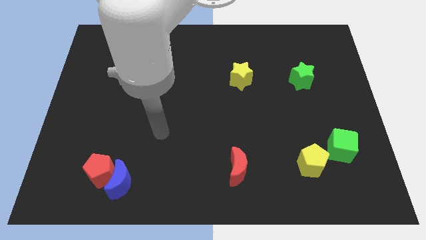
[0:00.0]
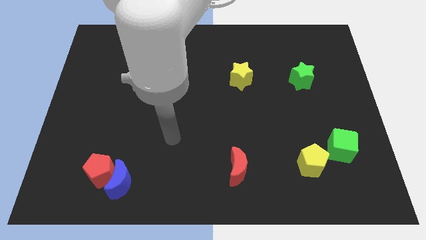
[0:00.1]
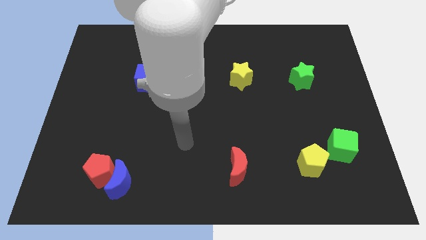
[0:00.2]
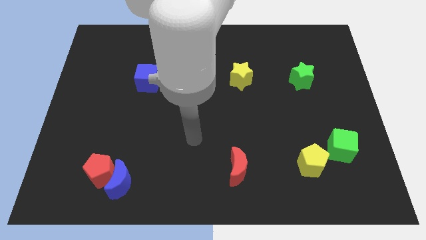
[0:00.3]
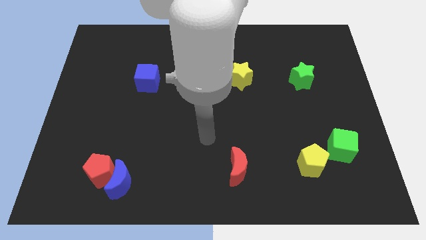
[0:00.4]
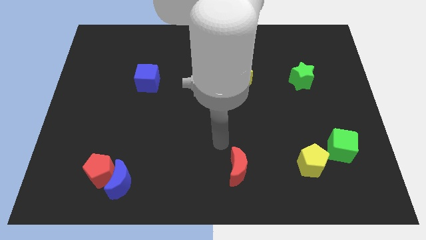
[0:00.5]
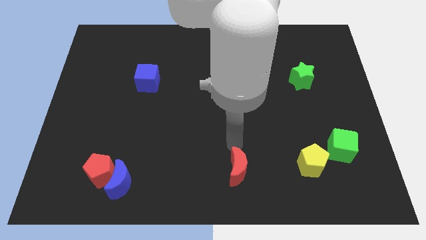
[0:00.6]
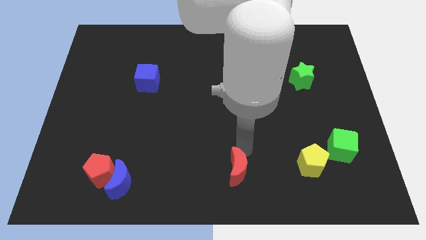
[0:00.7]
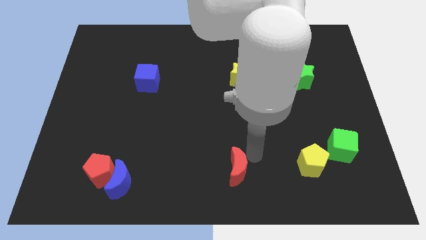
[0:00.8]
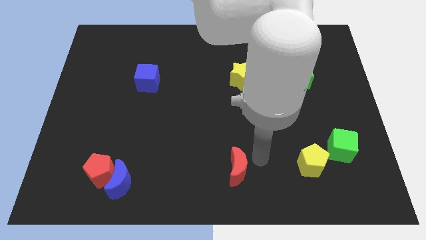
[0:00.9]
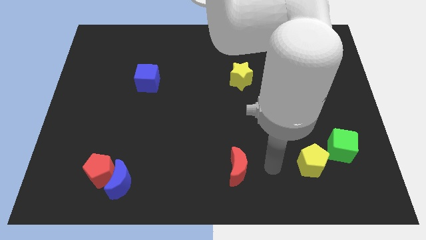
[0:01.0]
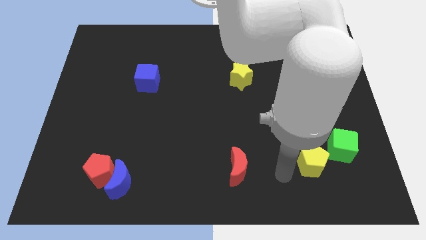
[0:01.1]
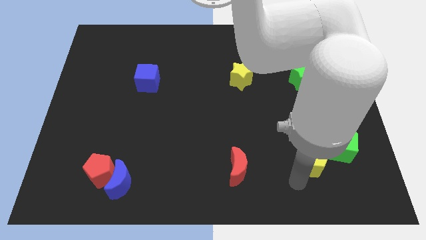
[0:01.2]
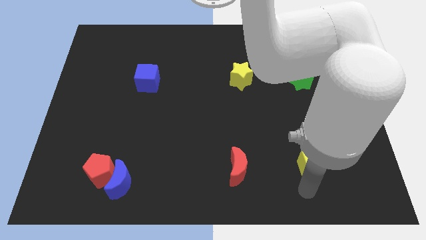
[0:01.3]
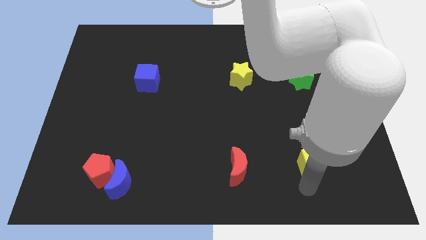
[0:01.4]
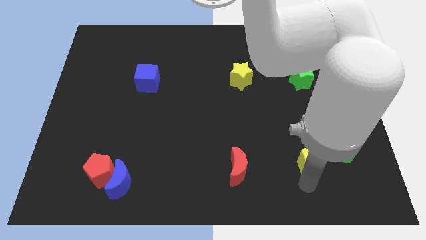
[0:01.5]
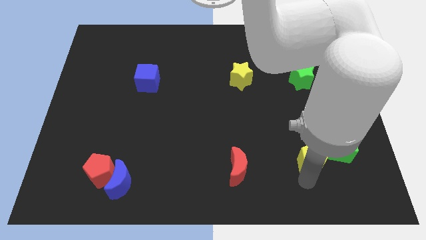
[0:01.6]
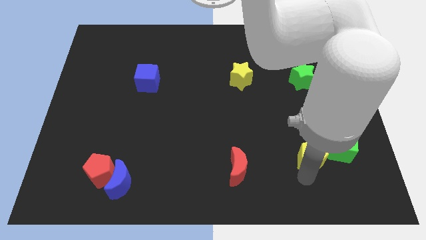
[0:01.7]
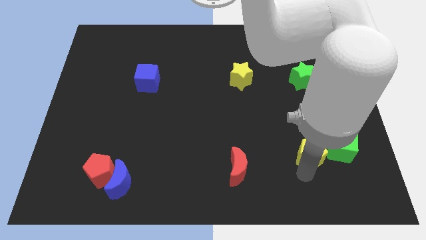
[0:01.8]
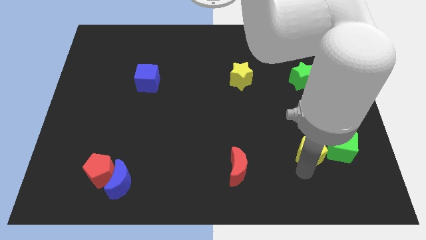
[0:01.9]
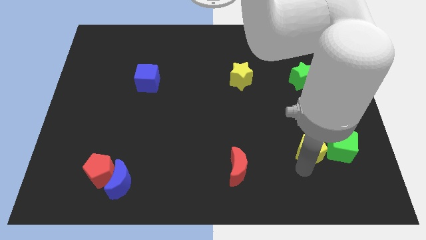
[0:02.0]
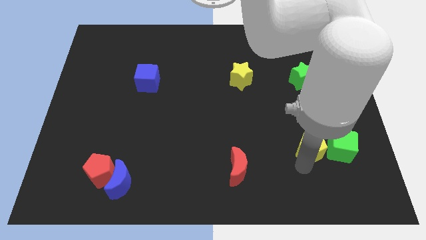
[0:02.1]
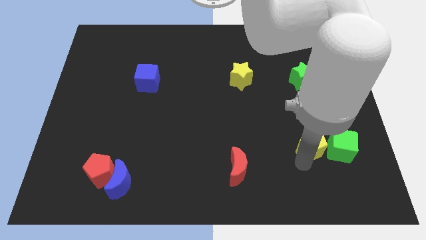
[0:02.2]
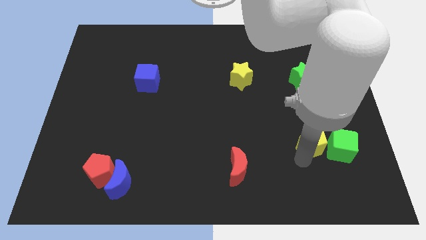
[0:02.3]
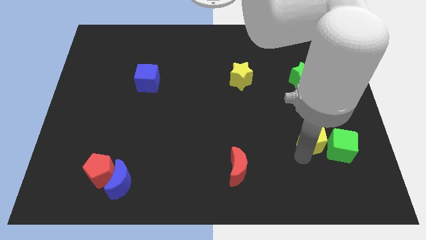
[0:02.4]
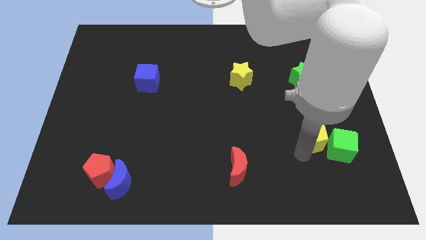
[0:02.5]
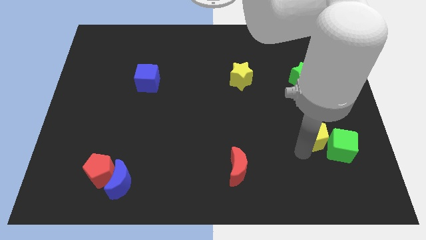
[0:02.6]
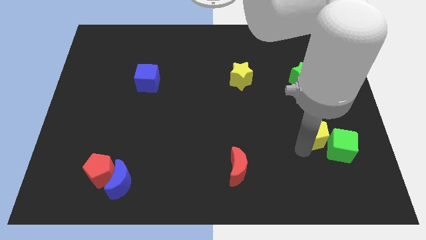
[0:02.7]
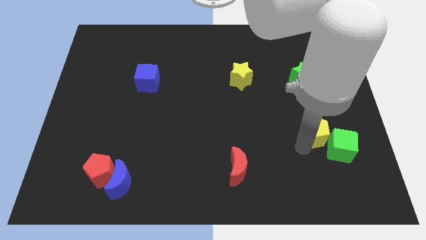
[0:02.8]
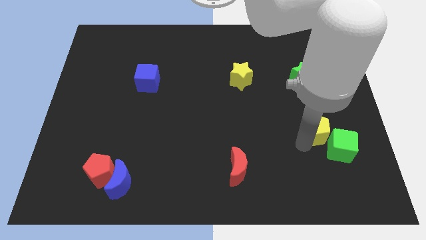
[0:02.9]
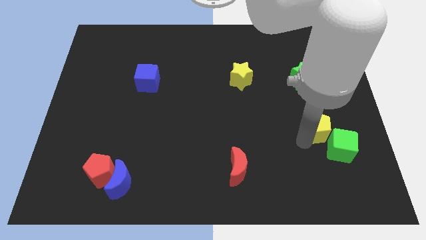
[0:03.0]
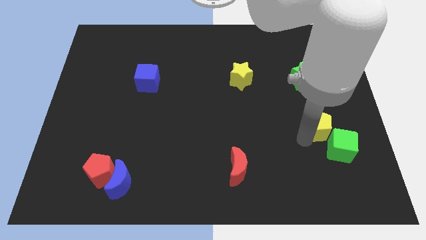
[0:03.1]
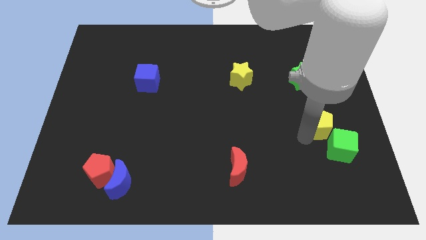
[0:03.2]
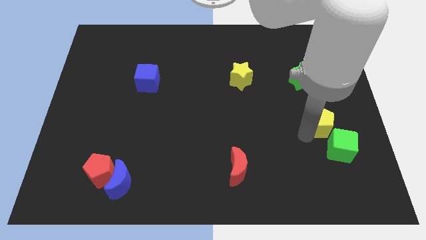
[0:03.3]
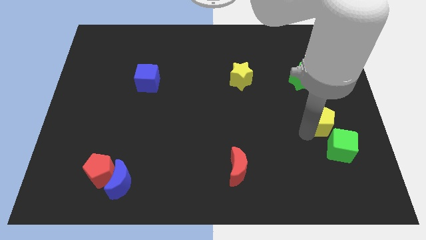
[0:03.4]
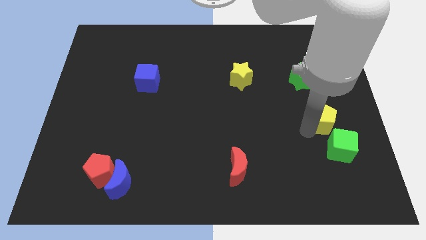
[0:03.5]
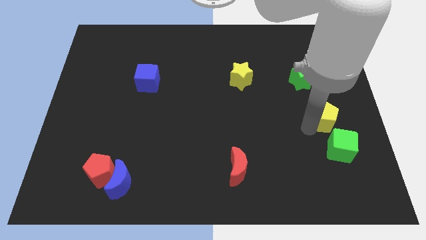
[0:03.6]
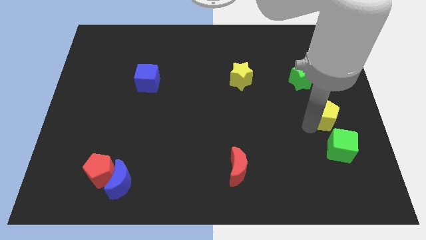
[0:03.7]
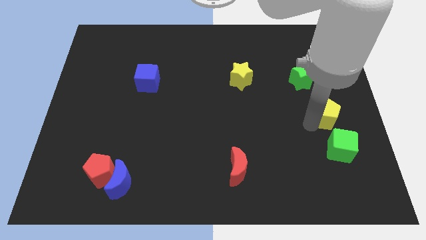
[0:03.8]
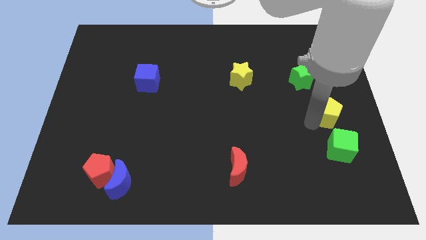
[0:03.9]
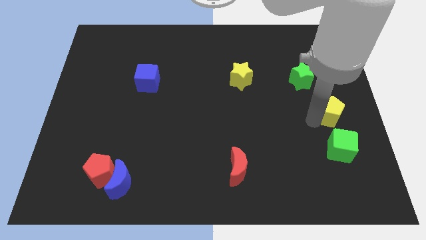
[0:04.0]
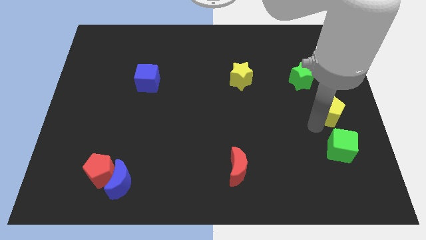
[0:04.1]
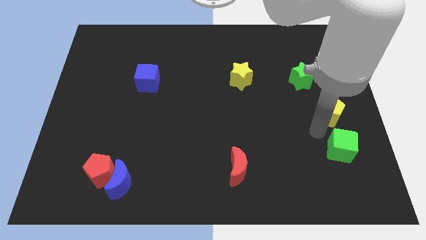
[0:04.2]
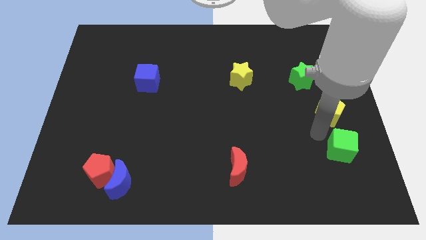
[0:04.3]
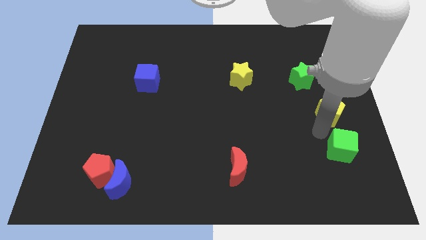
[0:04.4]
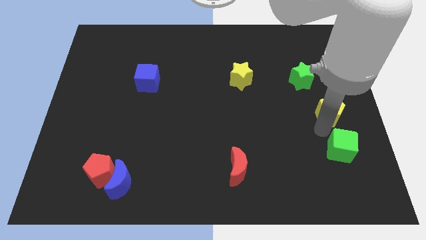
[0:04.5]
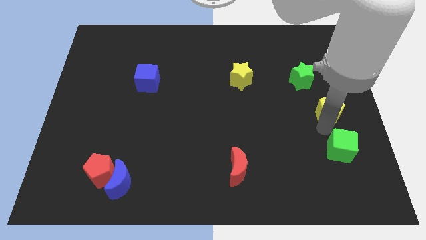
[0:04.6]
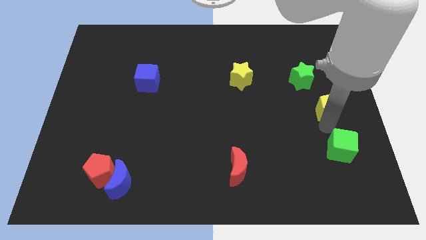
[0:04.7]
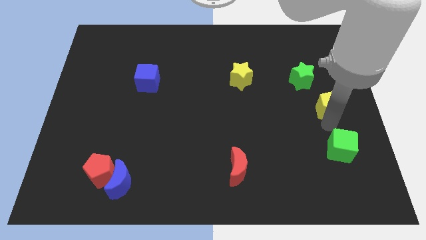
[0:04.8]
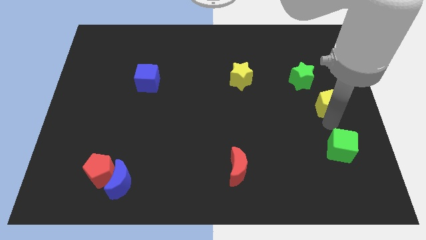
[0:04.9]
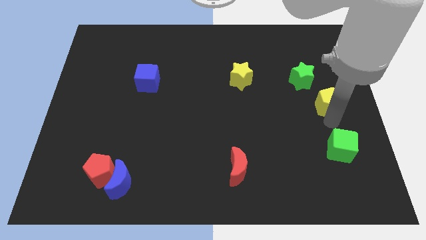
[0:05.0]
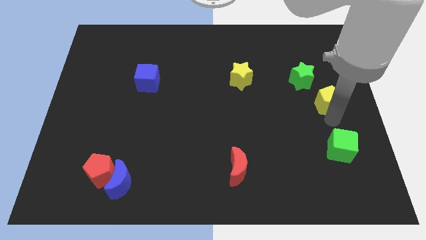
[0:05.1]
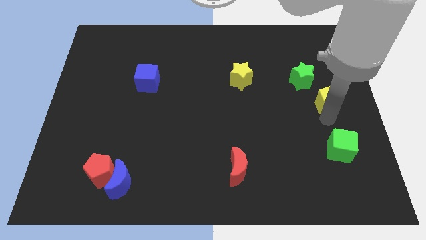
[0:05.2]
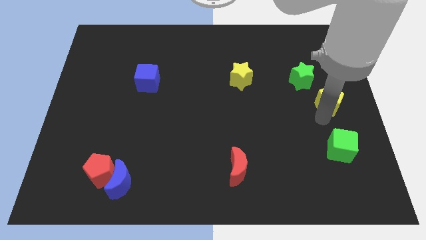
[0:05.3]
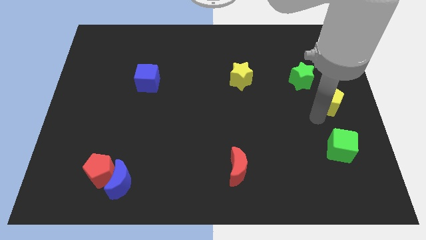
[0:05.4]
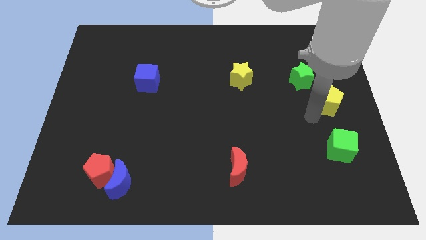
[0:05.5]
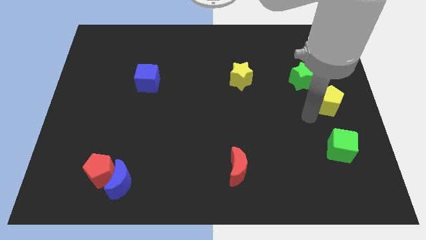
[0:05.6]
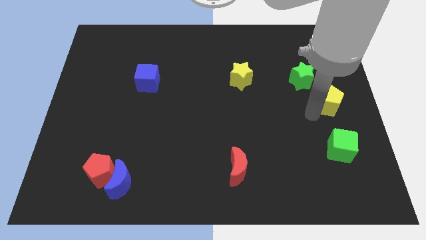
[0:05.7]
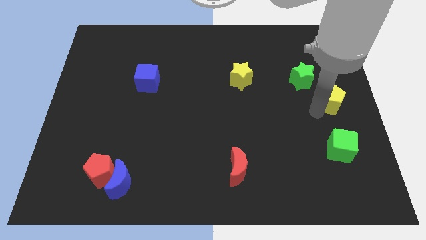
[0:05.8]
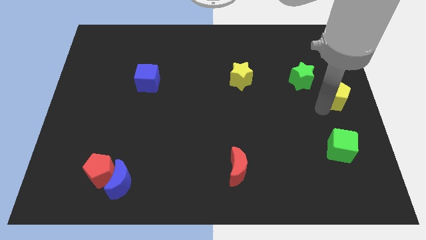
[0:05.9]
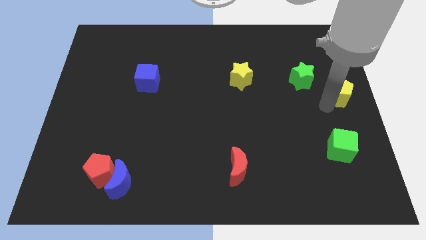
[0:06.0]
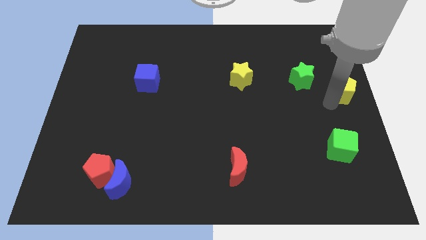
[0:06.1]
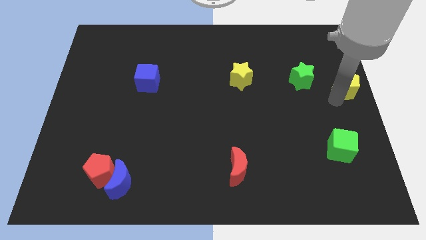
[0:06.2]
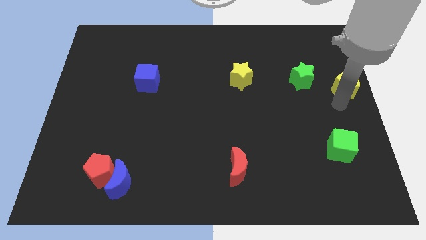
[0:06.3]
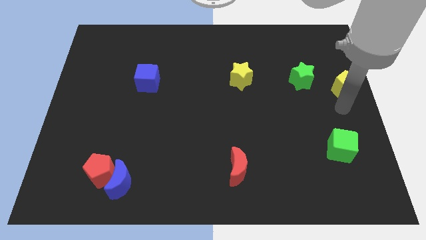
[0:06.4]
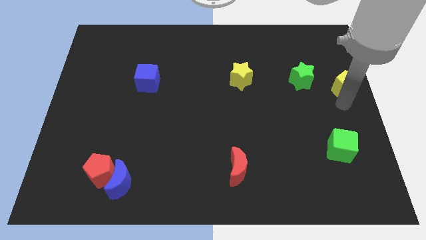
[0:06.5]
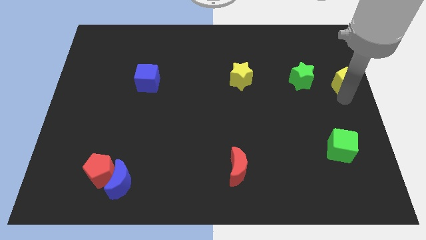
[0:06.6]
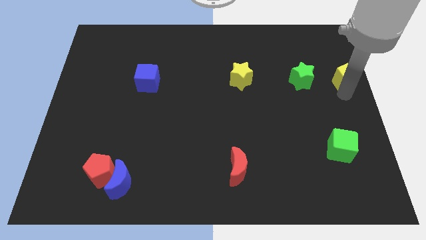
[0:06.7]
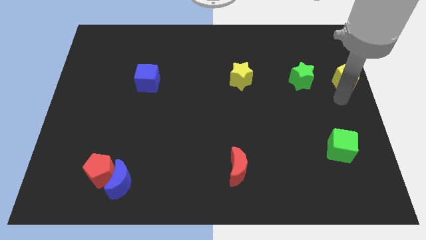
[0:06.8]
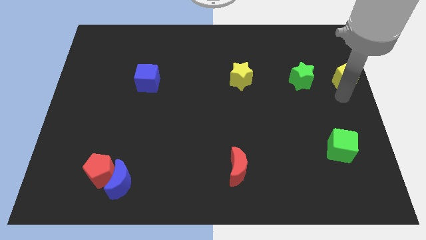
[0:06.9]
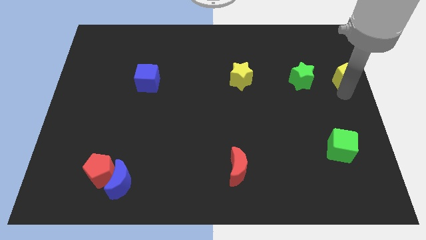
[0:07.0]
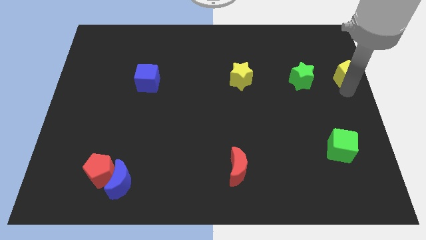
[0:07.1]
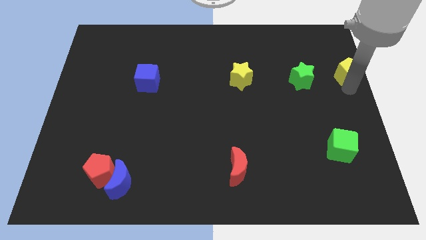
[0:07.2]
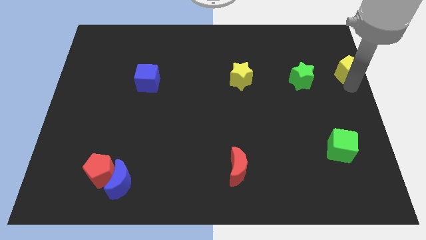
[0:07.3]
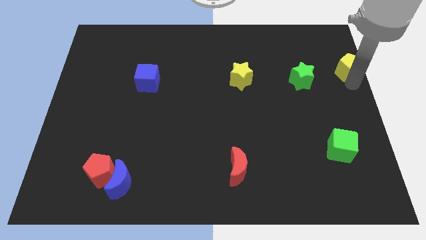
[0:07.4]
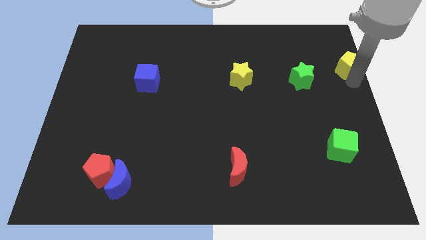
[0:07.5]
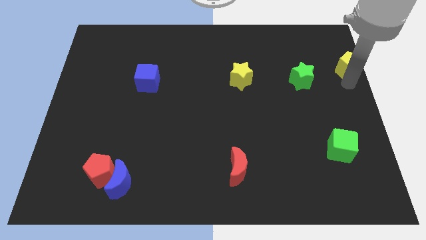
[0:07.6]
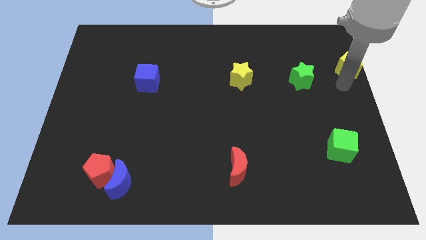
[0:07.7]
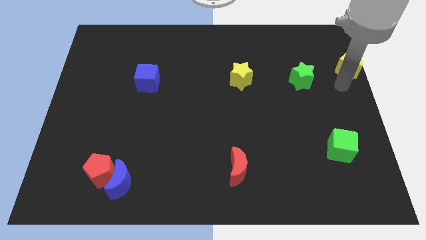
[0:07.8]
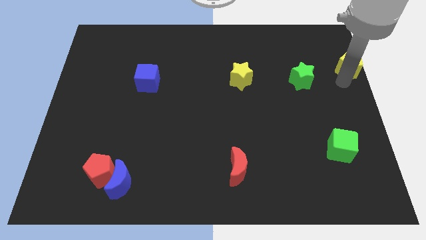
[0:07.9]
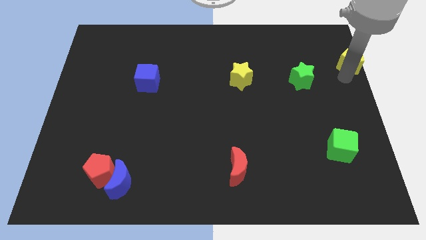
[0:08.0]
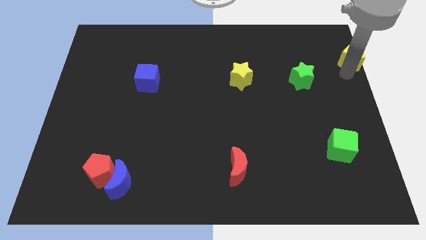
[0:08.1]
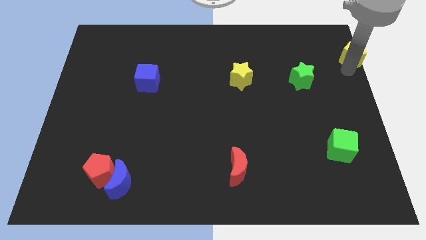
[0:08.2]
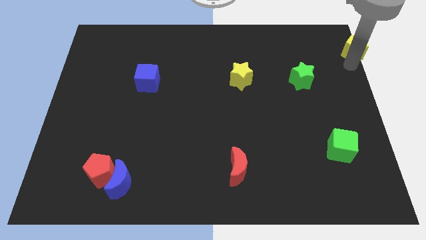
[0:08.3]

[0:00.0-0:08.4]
push the yellow pentagon to the upper right corner
